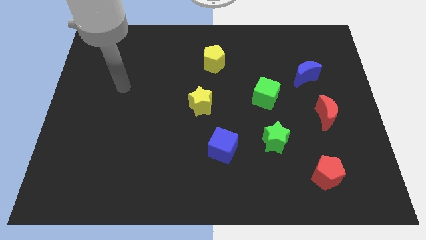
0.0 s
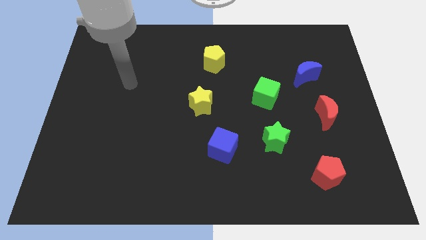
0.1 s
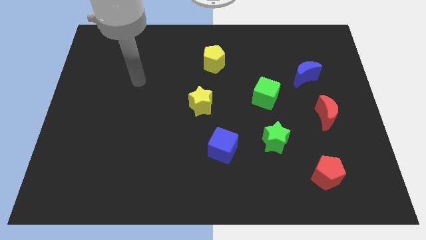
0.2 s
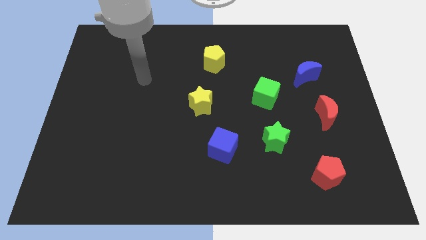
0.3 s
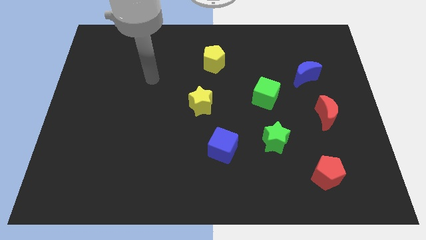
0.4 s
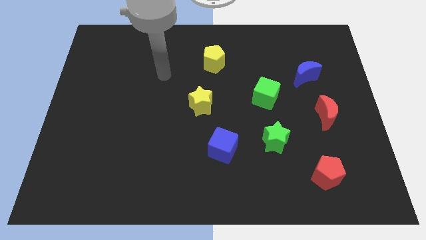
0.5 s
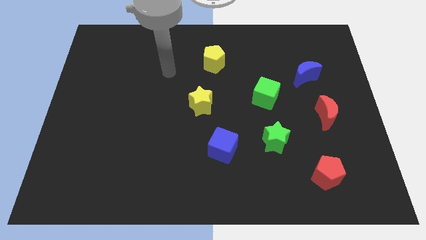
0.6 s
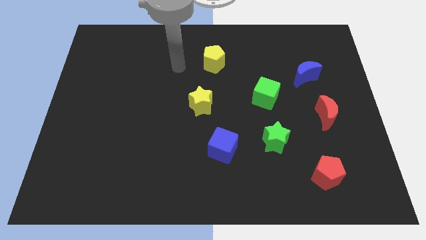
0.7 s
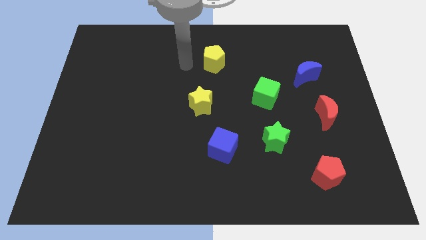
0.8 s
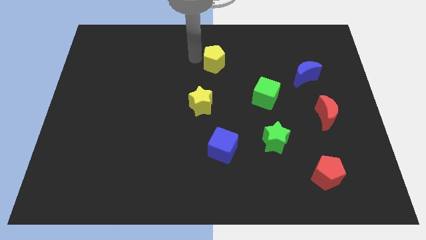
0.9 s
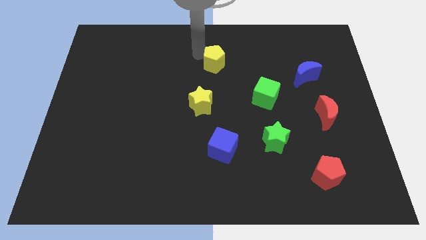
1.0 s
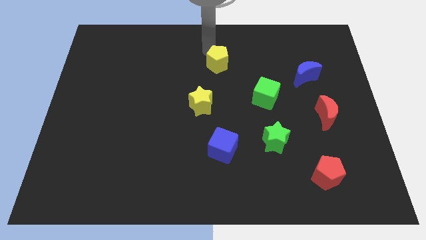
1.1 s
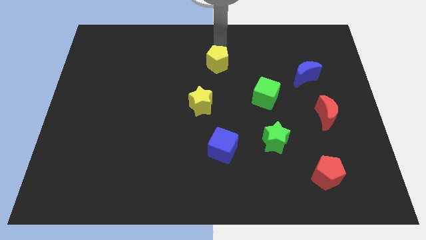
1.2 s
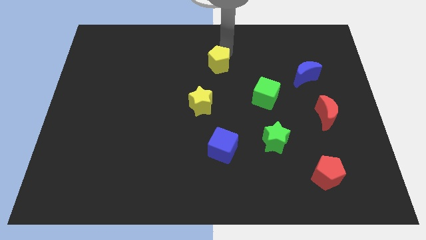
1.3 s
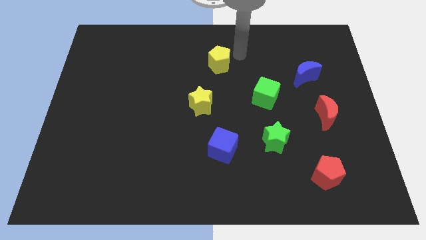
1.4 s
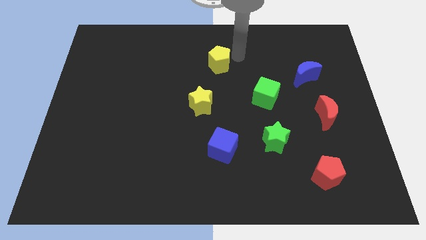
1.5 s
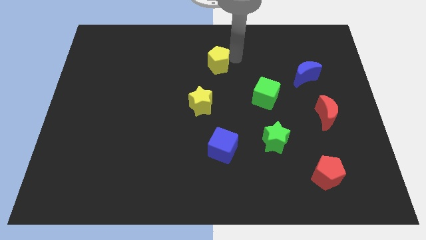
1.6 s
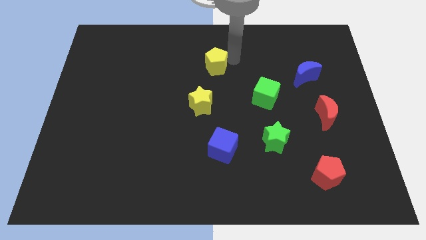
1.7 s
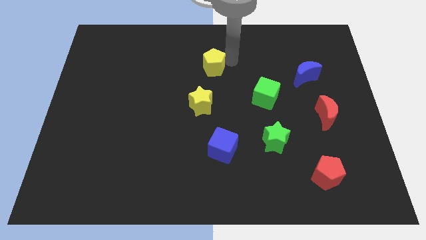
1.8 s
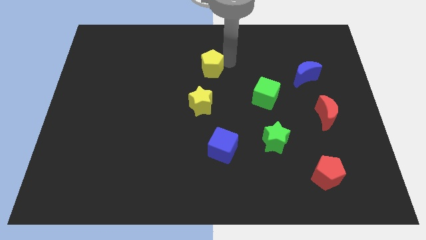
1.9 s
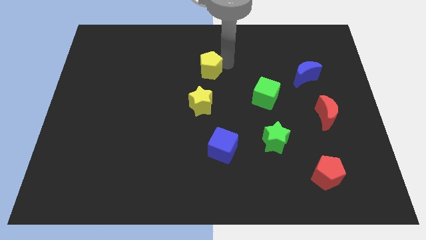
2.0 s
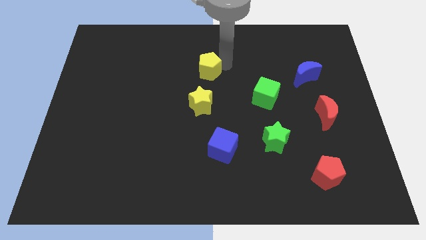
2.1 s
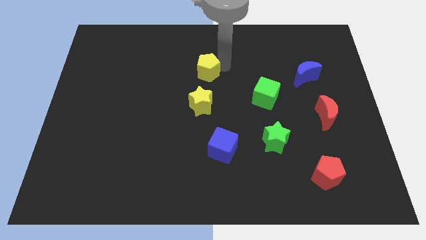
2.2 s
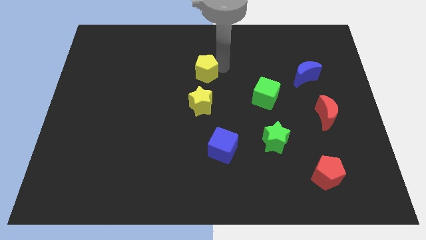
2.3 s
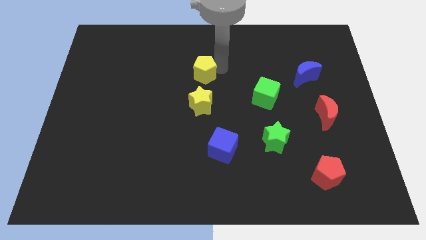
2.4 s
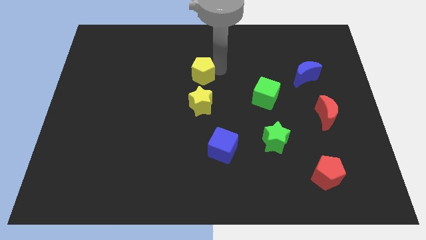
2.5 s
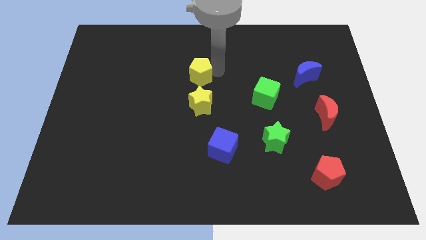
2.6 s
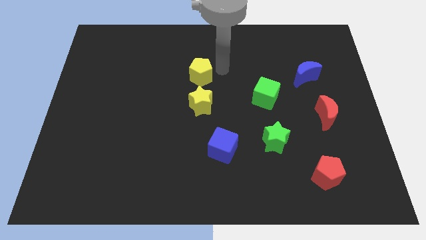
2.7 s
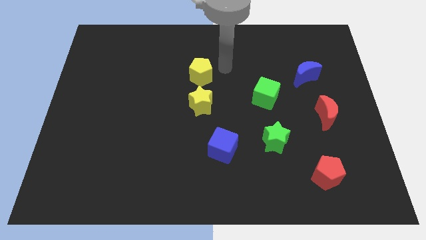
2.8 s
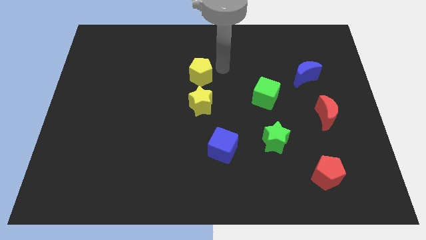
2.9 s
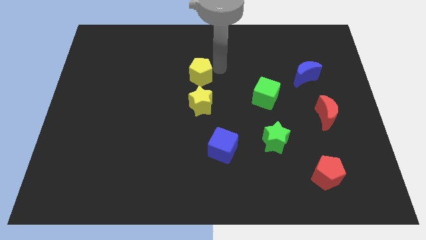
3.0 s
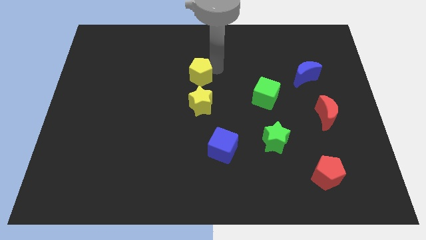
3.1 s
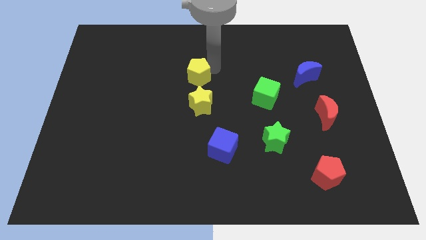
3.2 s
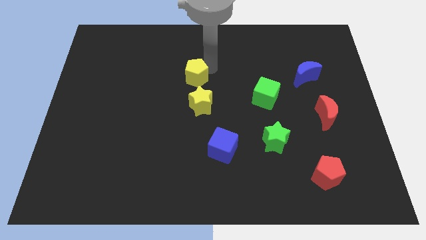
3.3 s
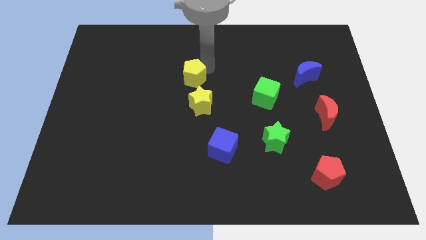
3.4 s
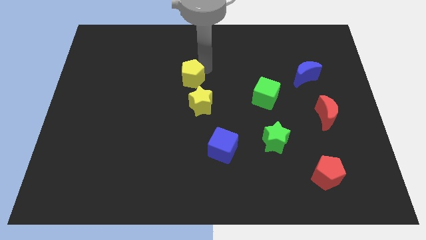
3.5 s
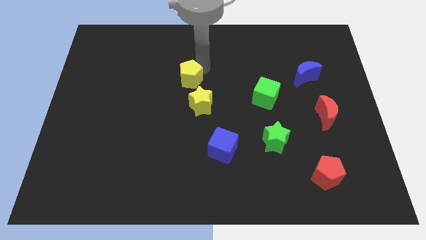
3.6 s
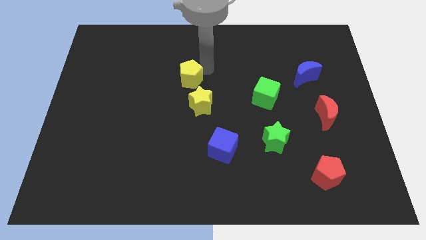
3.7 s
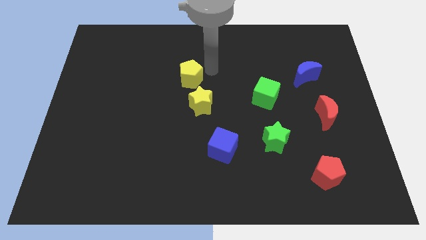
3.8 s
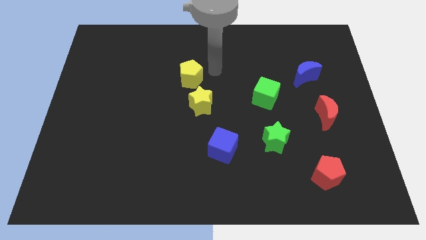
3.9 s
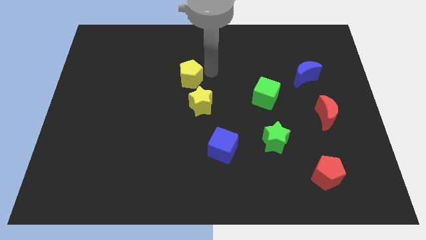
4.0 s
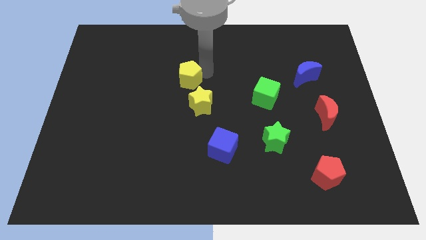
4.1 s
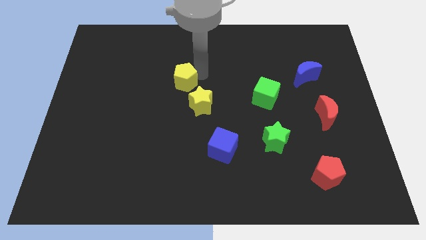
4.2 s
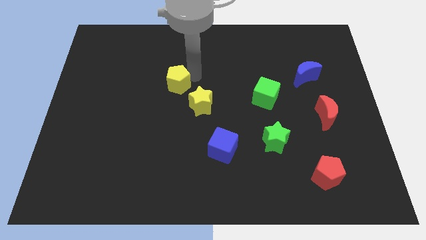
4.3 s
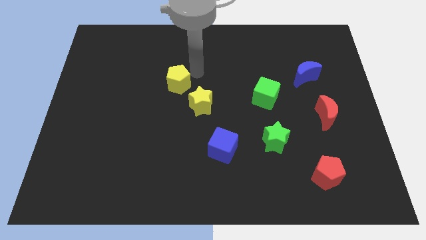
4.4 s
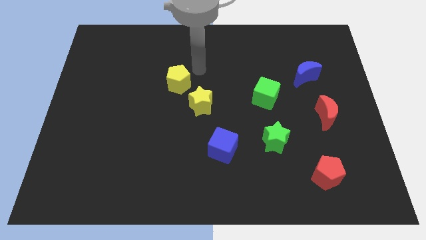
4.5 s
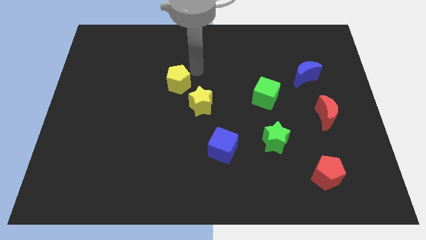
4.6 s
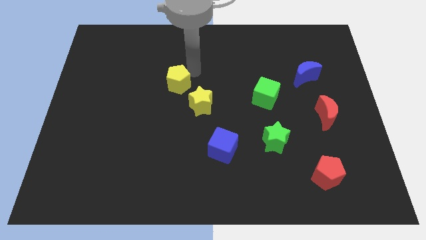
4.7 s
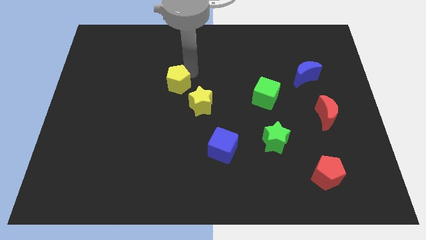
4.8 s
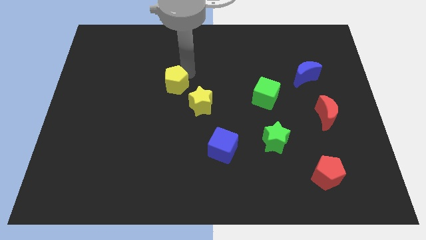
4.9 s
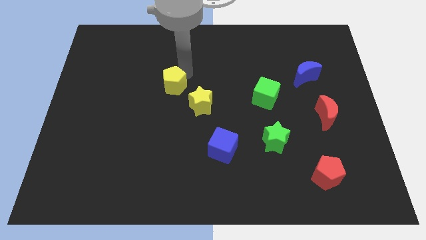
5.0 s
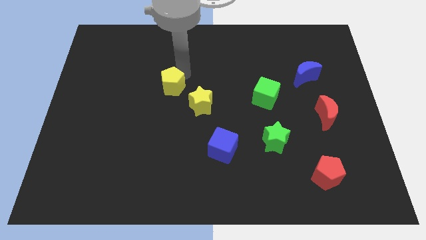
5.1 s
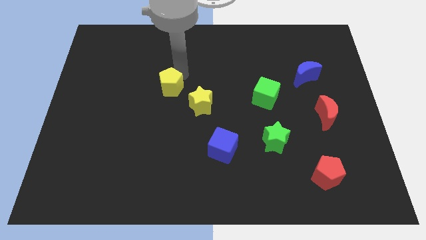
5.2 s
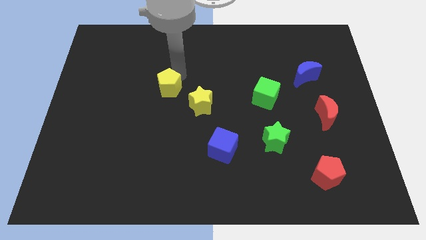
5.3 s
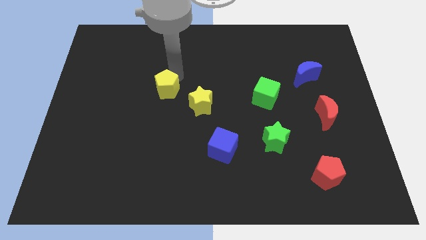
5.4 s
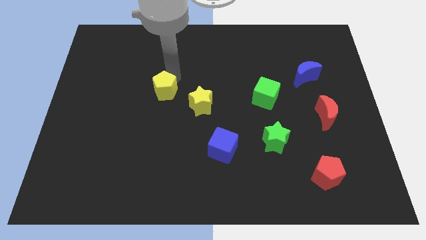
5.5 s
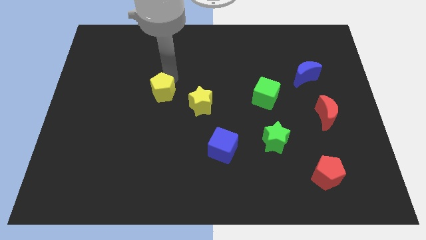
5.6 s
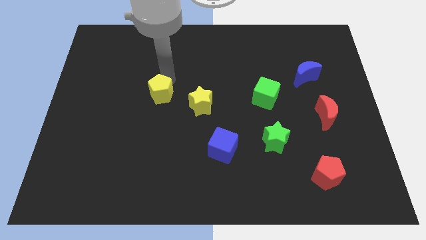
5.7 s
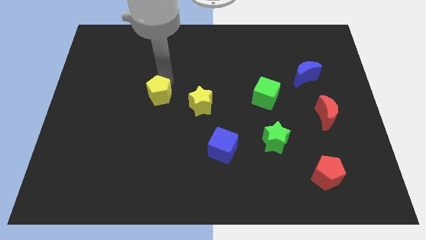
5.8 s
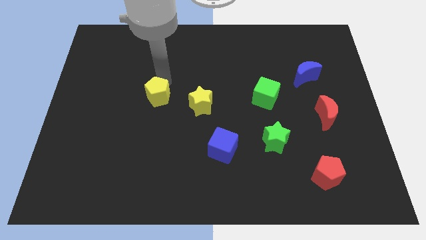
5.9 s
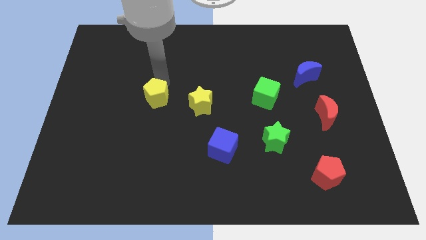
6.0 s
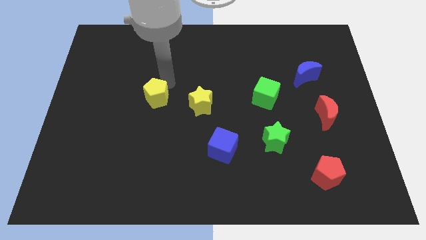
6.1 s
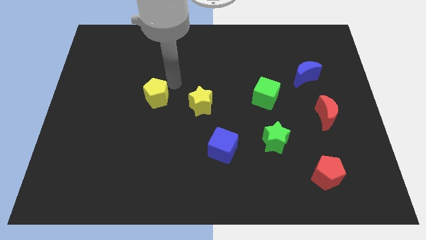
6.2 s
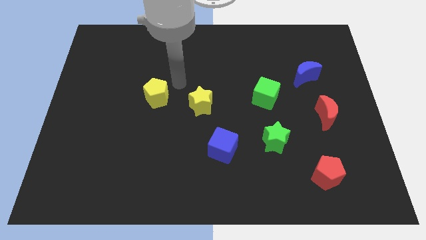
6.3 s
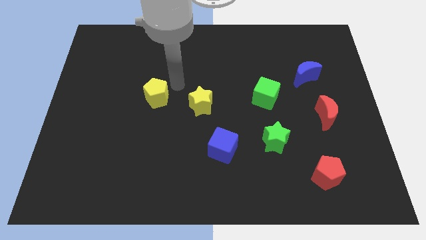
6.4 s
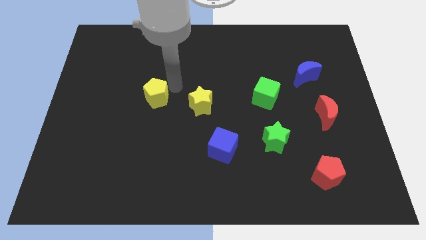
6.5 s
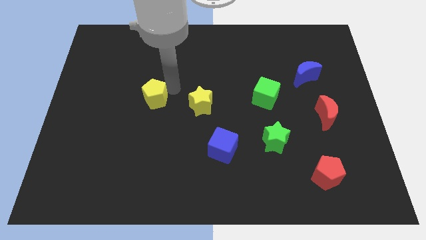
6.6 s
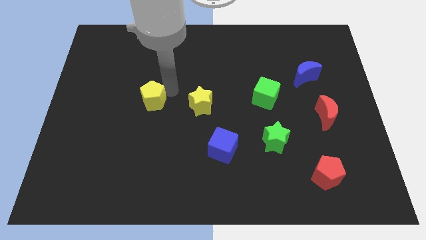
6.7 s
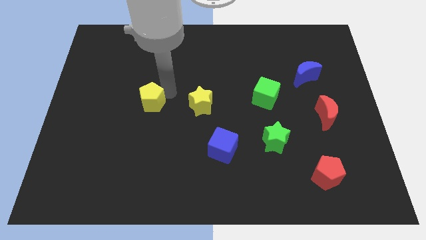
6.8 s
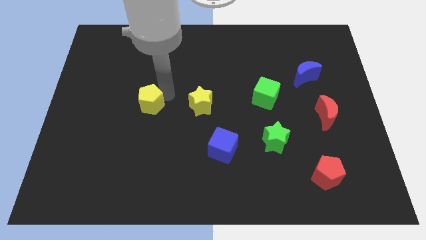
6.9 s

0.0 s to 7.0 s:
slide the yellow pentagon down and then to the left

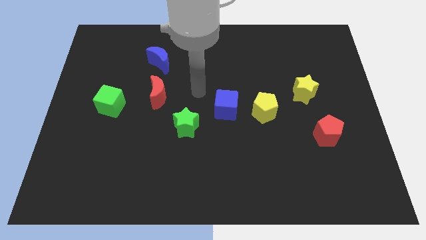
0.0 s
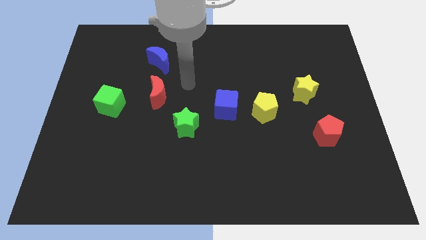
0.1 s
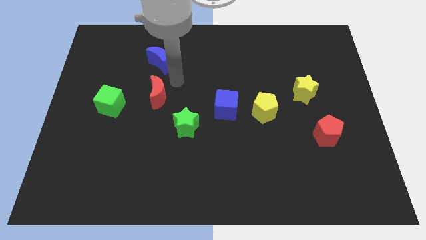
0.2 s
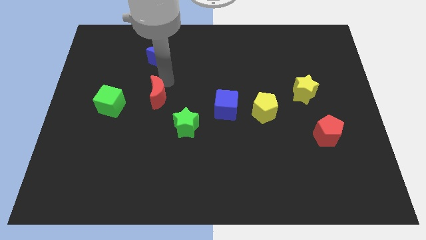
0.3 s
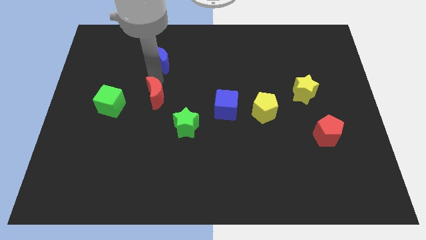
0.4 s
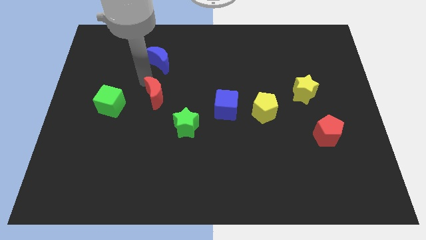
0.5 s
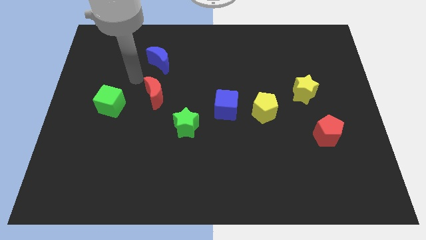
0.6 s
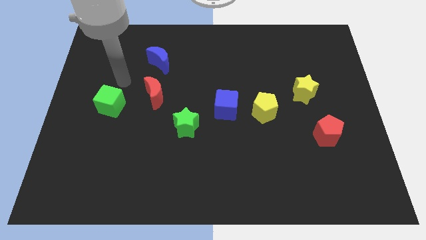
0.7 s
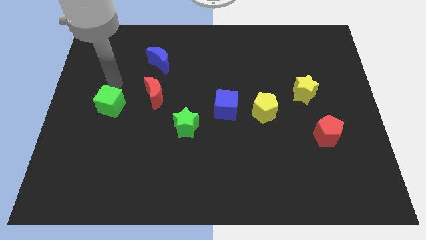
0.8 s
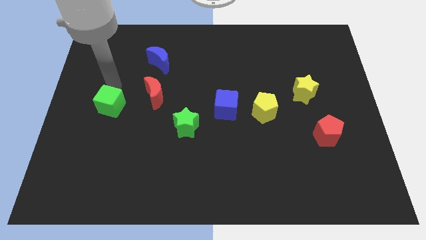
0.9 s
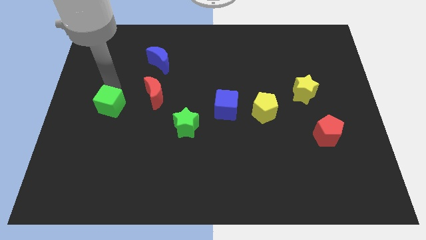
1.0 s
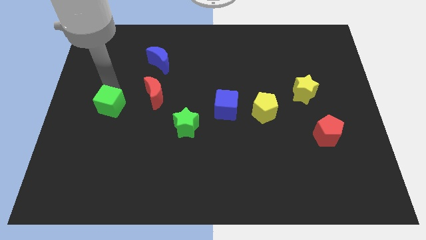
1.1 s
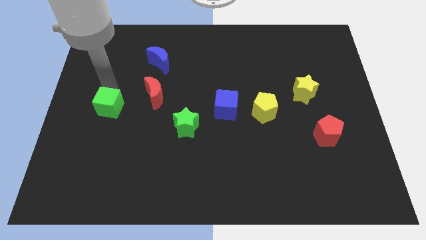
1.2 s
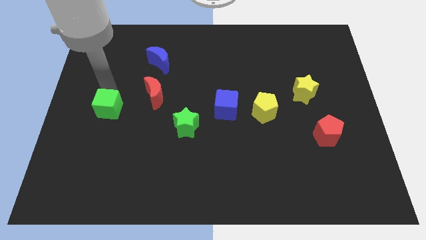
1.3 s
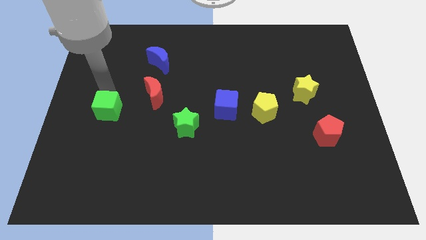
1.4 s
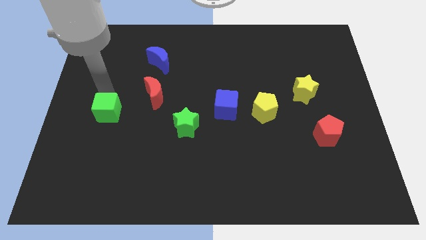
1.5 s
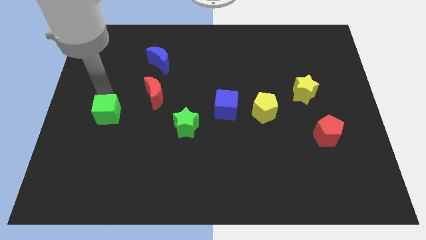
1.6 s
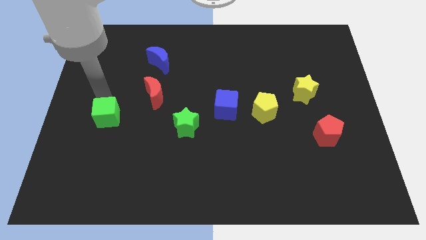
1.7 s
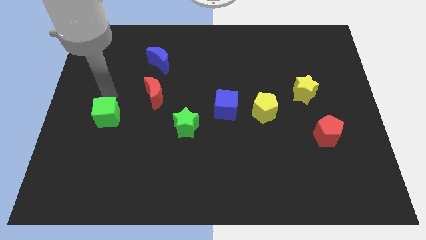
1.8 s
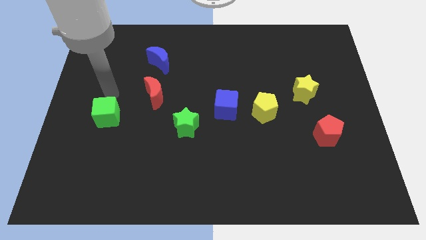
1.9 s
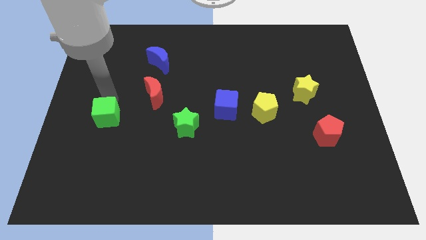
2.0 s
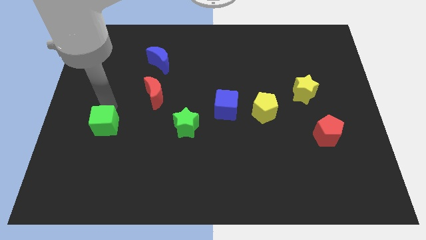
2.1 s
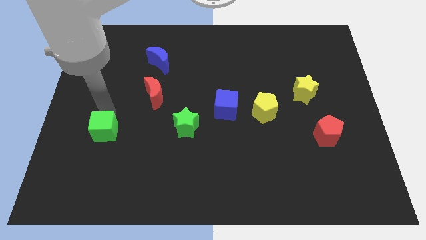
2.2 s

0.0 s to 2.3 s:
move the green cube down somewhat
